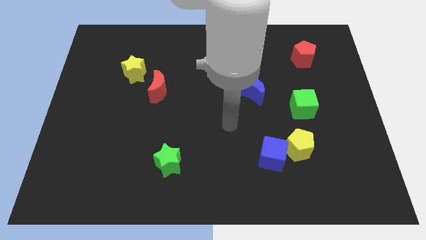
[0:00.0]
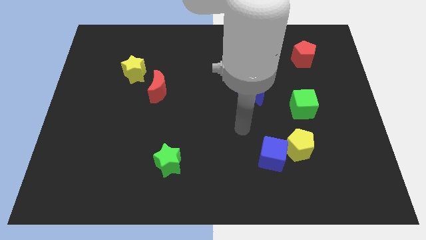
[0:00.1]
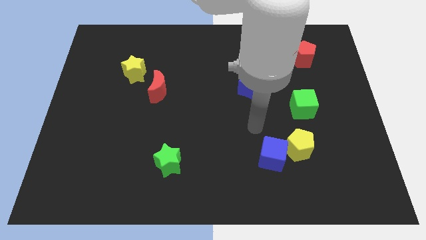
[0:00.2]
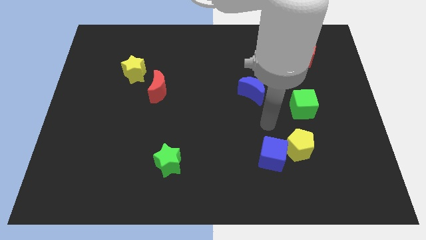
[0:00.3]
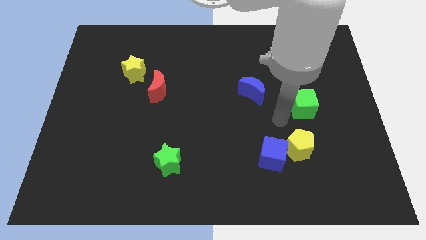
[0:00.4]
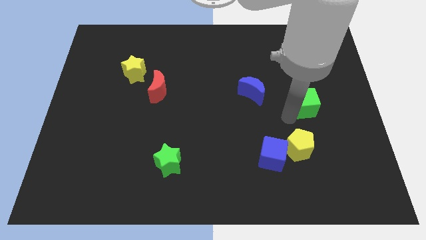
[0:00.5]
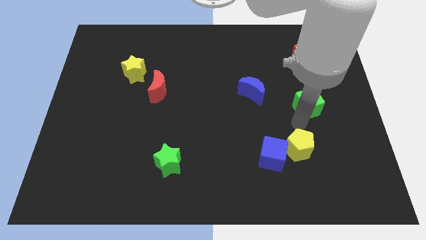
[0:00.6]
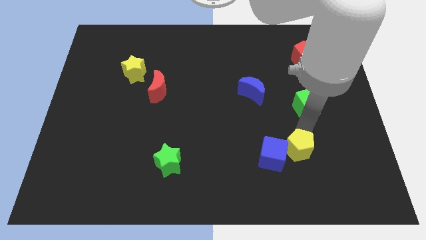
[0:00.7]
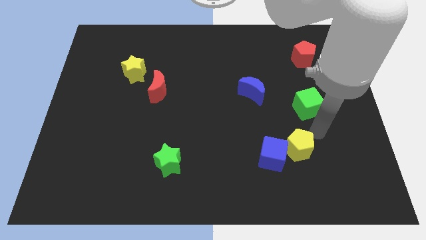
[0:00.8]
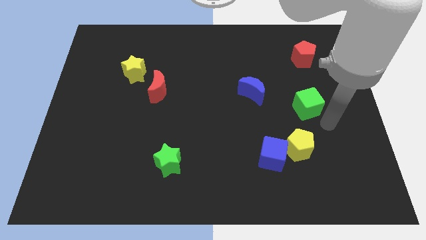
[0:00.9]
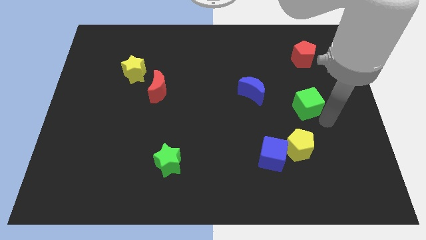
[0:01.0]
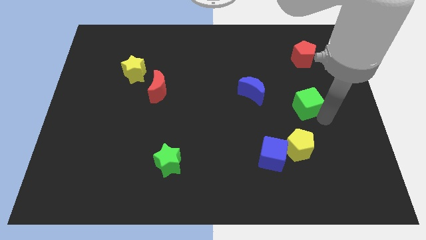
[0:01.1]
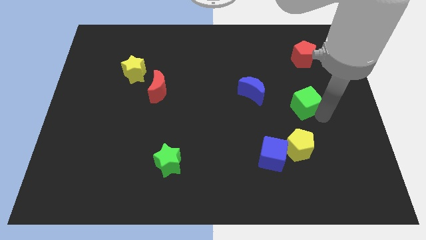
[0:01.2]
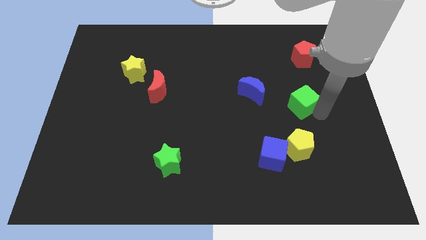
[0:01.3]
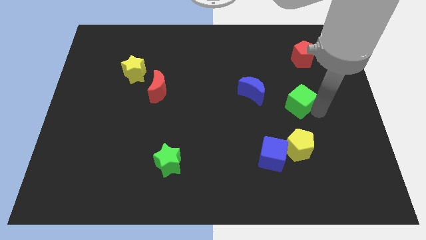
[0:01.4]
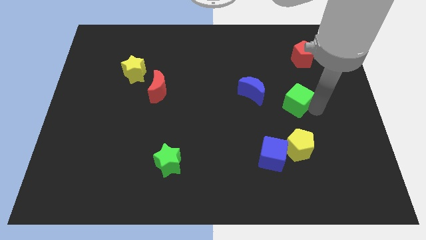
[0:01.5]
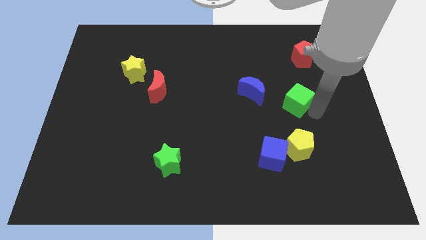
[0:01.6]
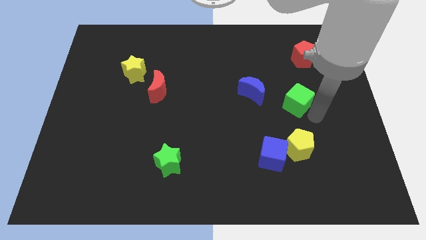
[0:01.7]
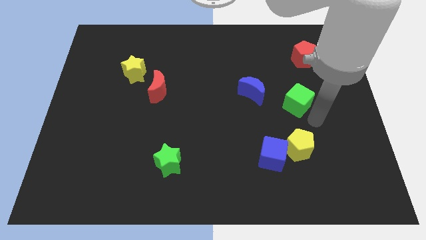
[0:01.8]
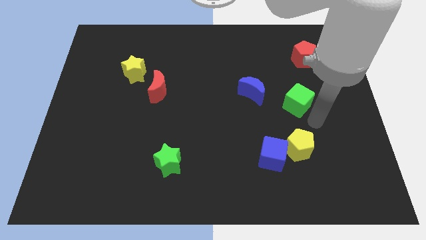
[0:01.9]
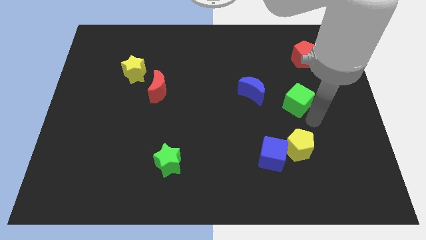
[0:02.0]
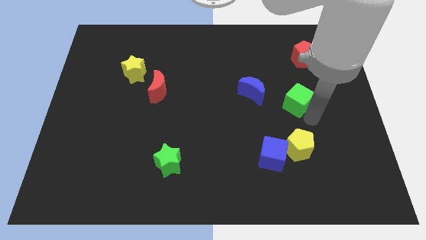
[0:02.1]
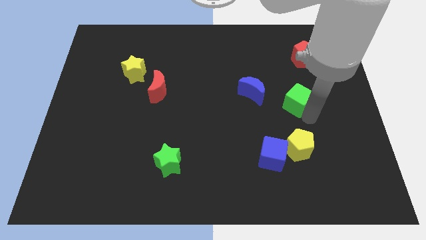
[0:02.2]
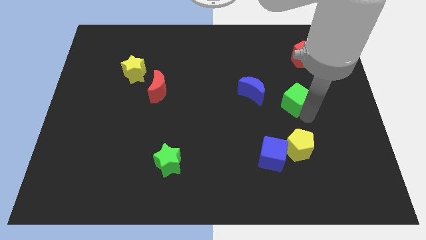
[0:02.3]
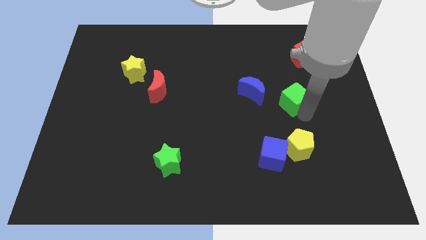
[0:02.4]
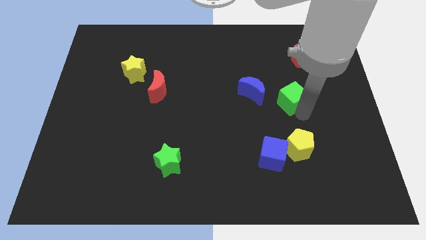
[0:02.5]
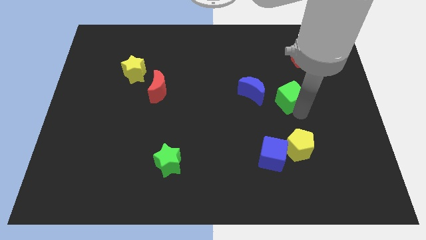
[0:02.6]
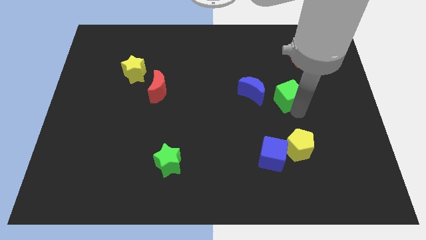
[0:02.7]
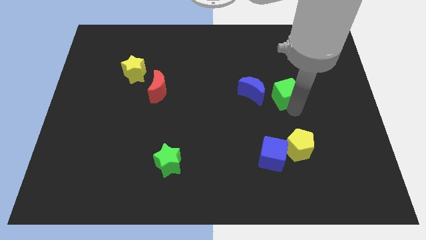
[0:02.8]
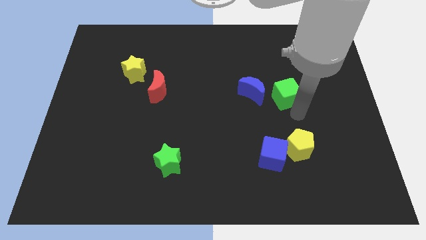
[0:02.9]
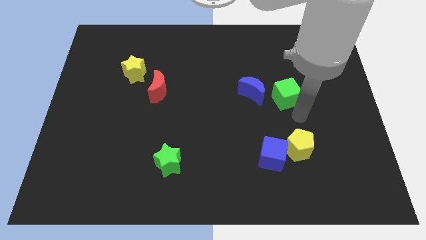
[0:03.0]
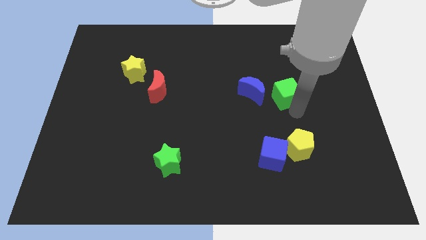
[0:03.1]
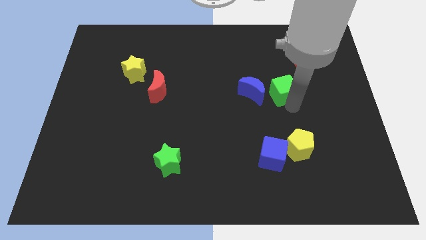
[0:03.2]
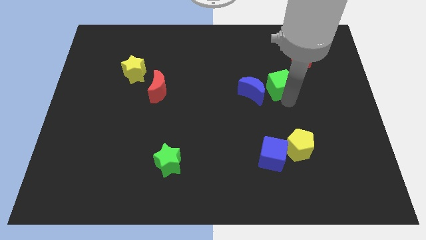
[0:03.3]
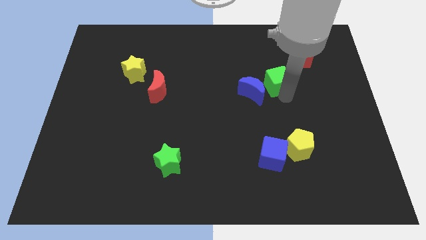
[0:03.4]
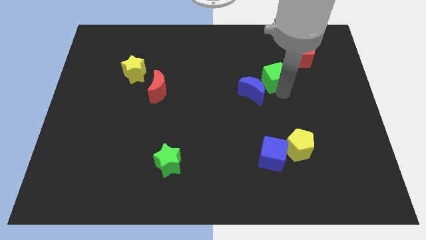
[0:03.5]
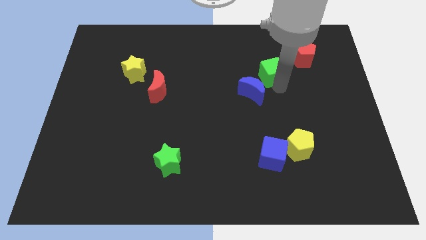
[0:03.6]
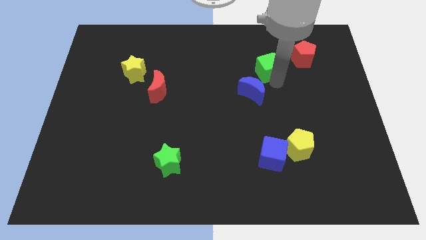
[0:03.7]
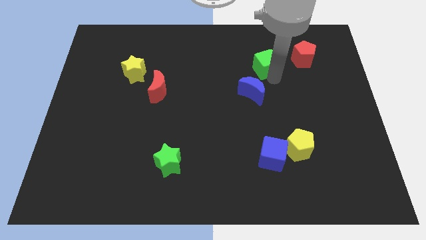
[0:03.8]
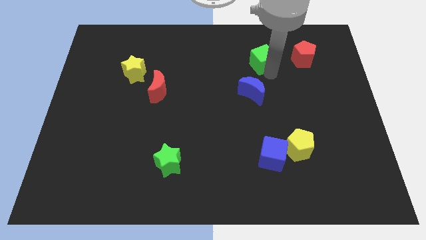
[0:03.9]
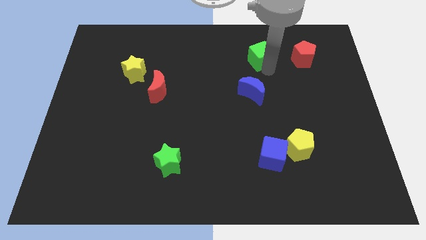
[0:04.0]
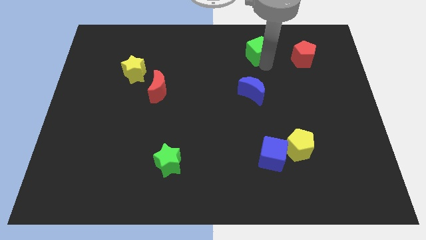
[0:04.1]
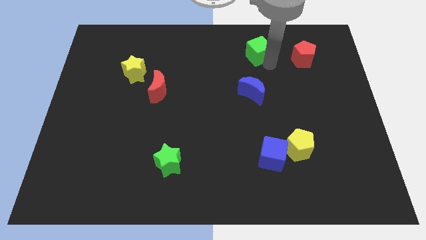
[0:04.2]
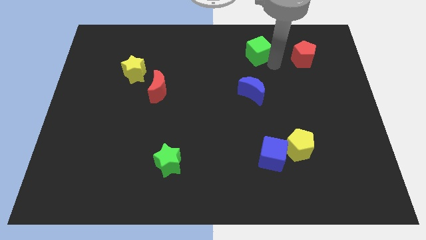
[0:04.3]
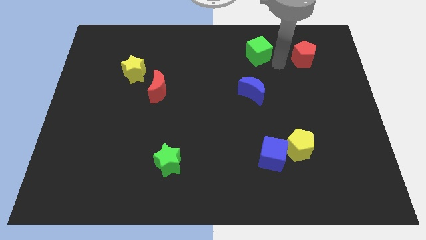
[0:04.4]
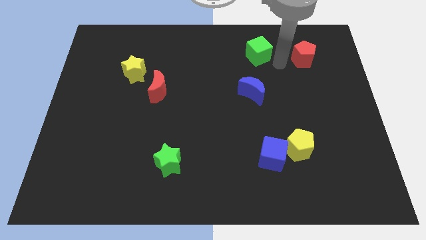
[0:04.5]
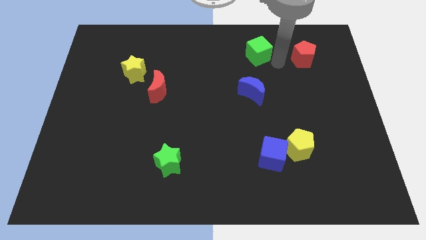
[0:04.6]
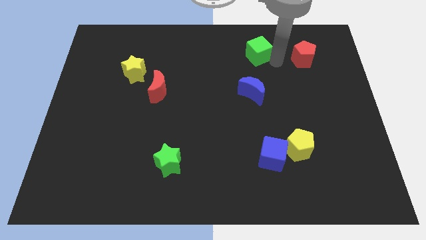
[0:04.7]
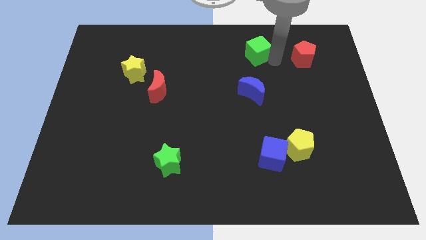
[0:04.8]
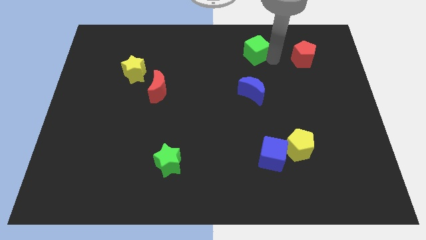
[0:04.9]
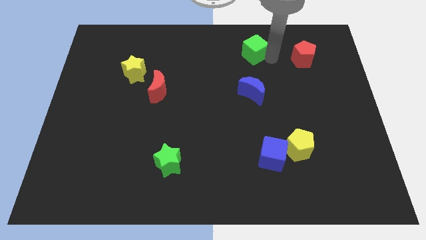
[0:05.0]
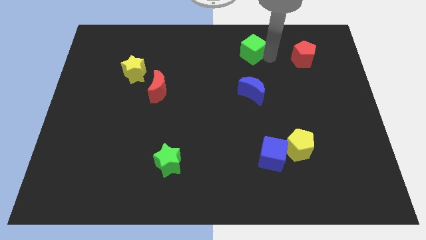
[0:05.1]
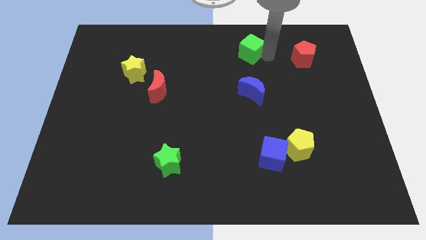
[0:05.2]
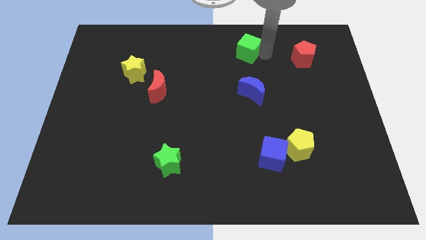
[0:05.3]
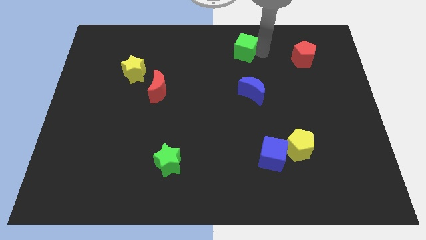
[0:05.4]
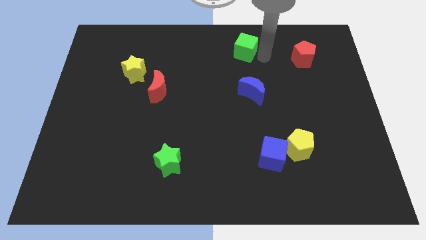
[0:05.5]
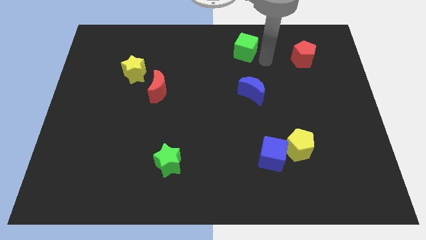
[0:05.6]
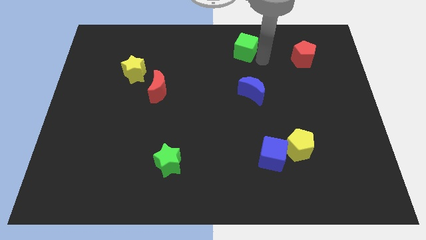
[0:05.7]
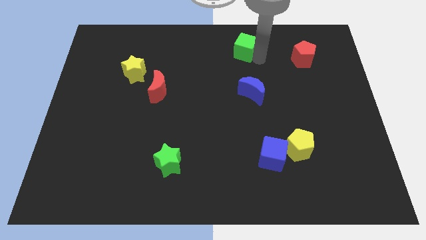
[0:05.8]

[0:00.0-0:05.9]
put the green cube to the top
